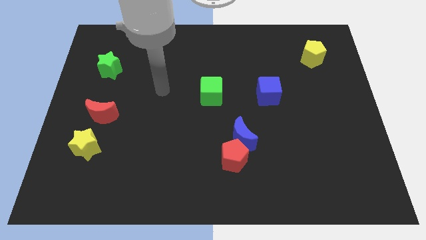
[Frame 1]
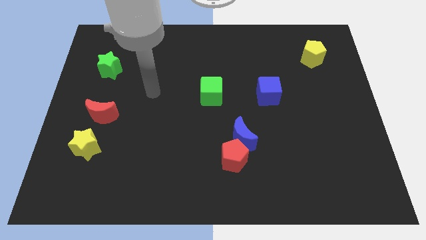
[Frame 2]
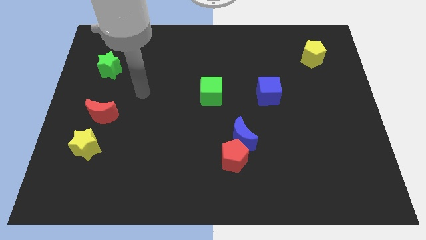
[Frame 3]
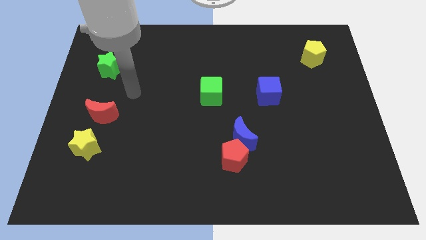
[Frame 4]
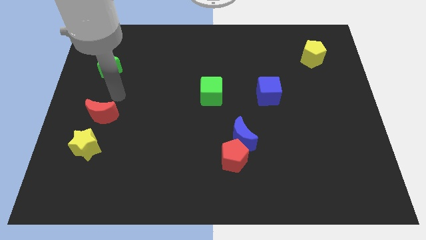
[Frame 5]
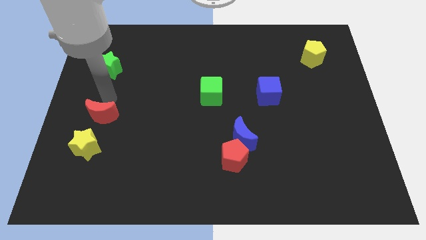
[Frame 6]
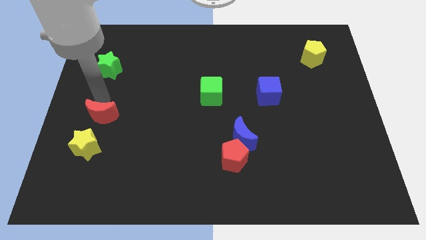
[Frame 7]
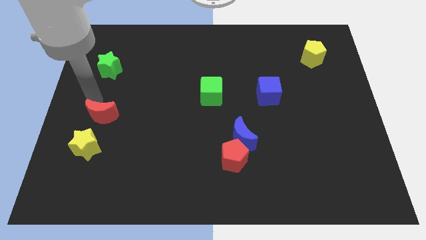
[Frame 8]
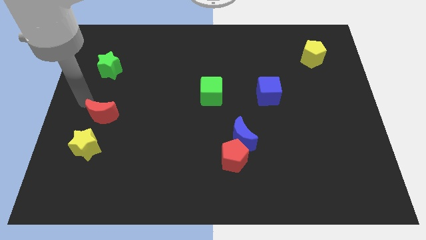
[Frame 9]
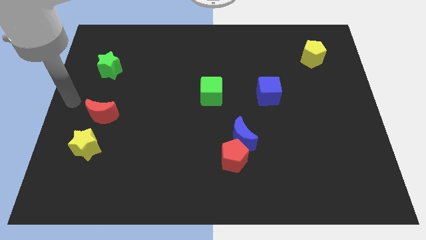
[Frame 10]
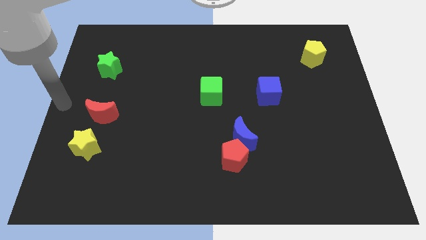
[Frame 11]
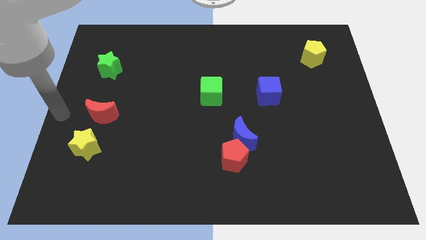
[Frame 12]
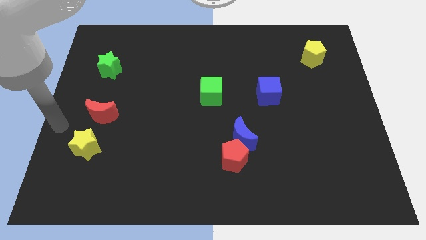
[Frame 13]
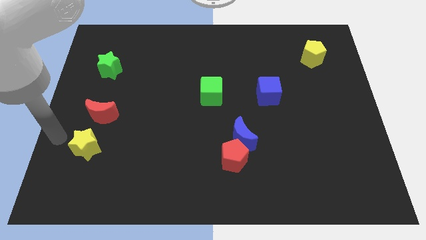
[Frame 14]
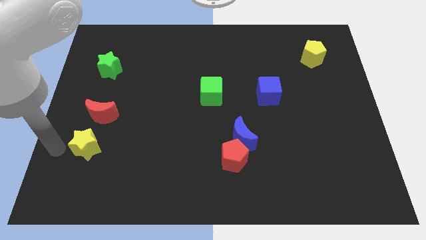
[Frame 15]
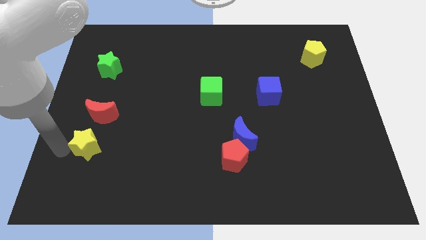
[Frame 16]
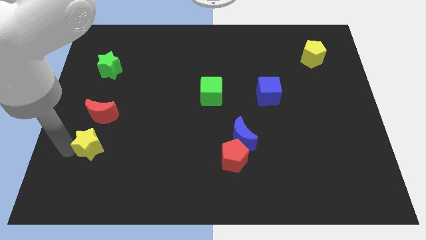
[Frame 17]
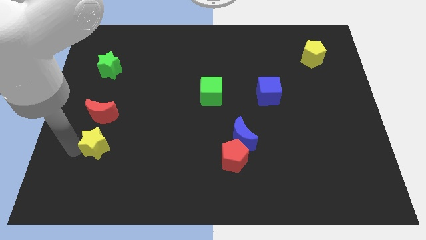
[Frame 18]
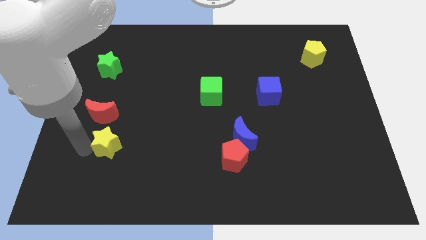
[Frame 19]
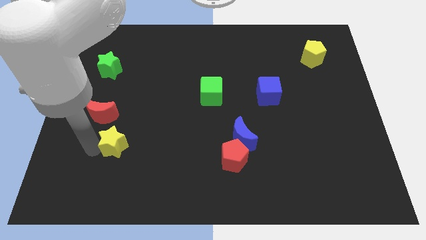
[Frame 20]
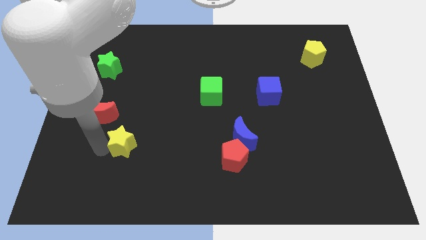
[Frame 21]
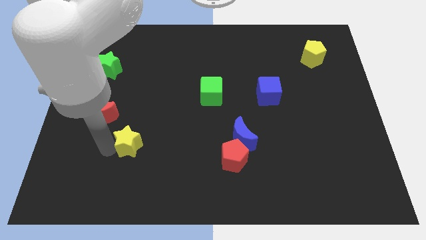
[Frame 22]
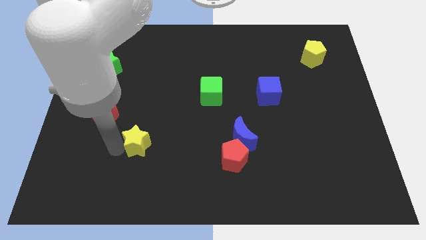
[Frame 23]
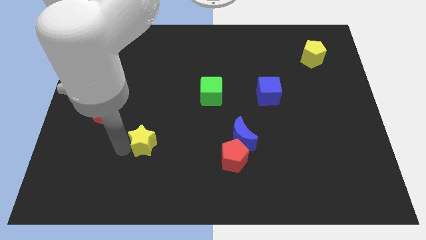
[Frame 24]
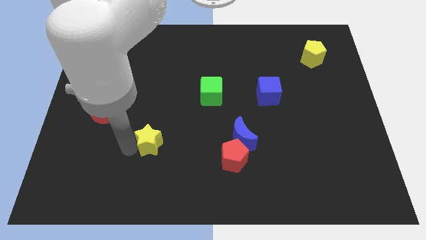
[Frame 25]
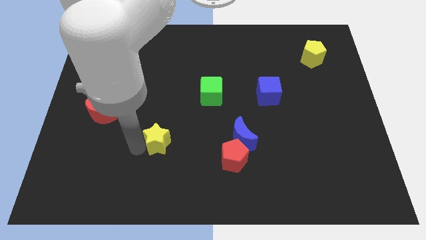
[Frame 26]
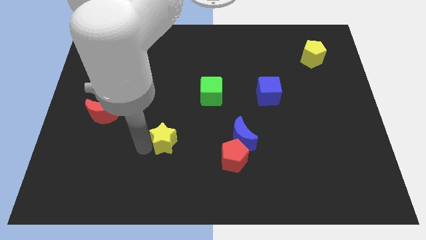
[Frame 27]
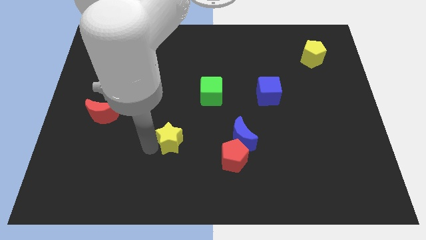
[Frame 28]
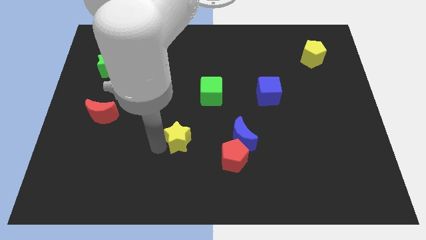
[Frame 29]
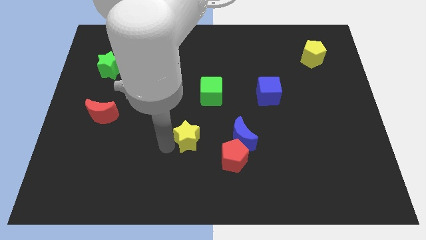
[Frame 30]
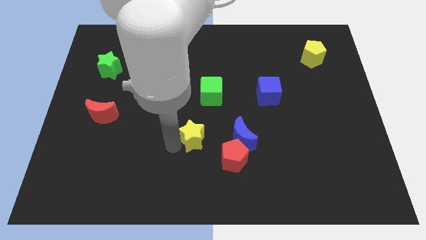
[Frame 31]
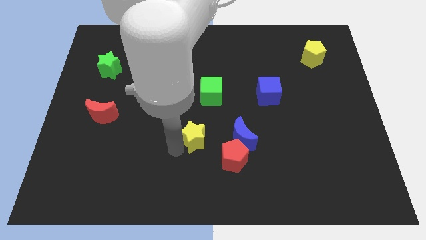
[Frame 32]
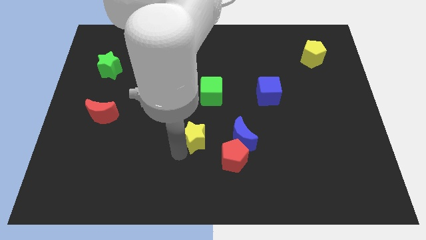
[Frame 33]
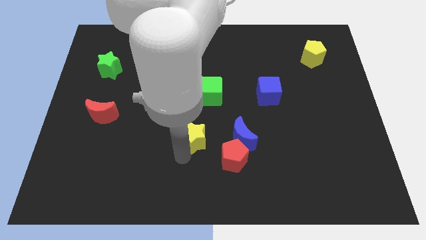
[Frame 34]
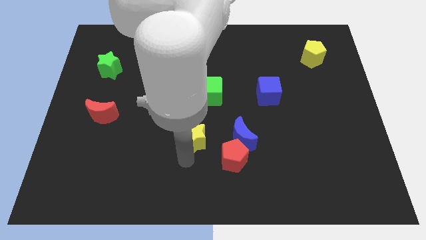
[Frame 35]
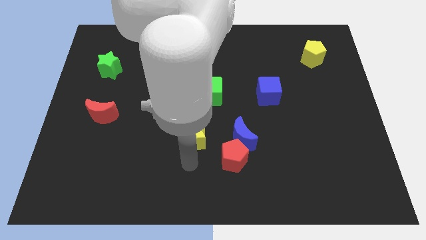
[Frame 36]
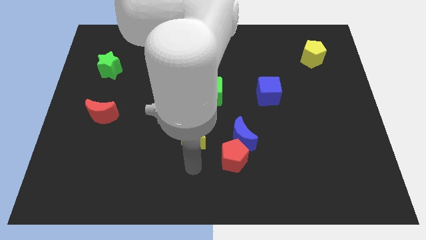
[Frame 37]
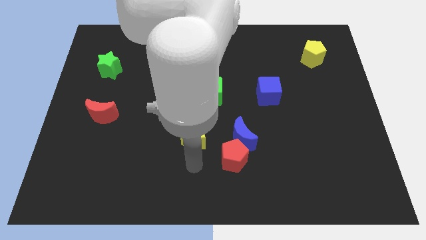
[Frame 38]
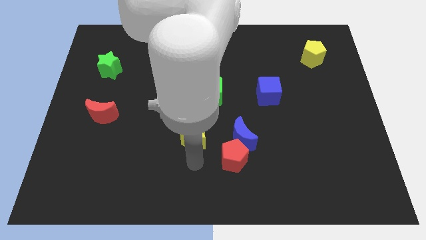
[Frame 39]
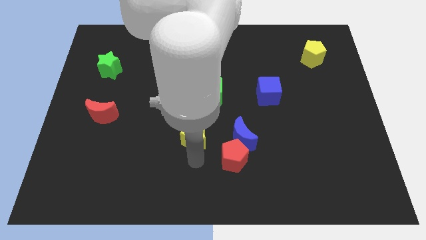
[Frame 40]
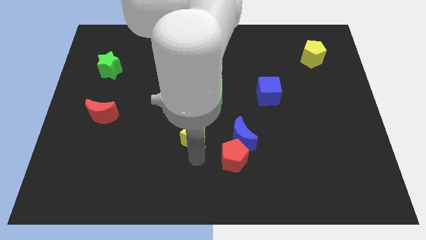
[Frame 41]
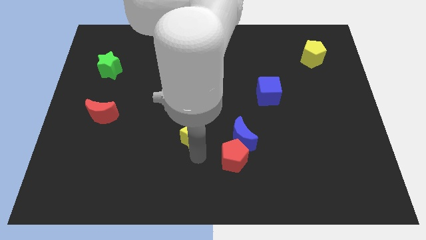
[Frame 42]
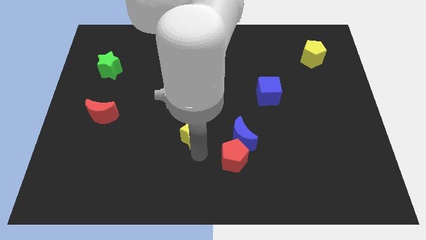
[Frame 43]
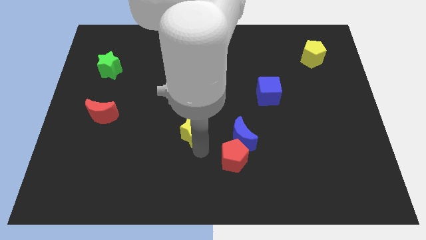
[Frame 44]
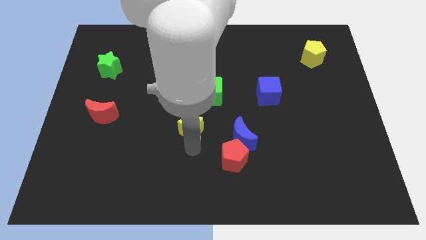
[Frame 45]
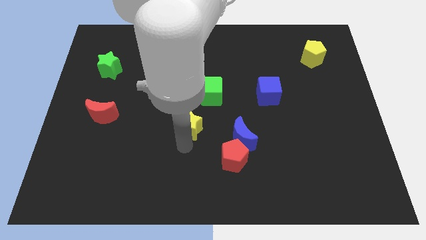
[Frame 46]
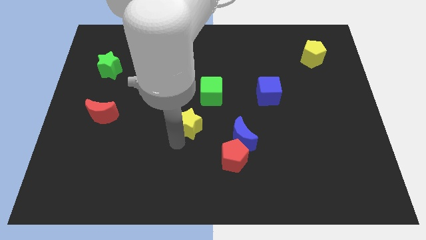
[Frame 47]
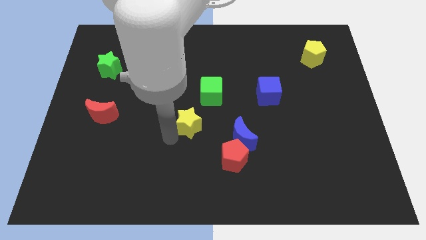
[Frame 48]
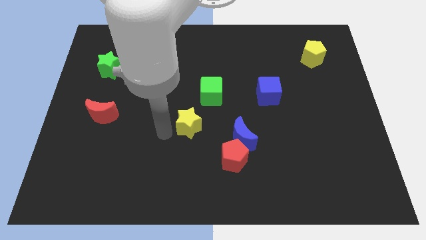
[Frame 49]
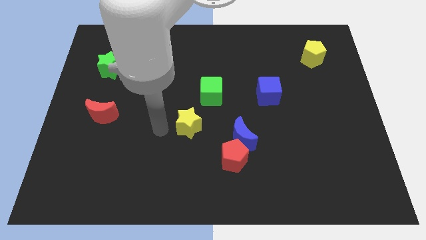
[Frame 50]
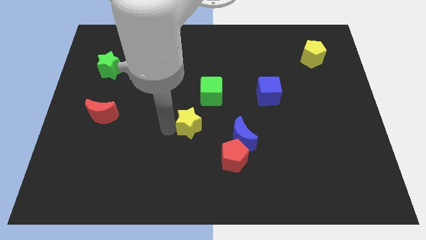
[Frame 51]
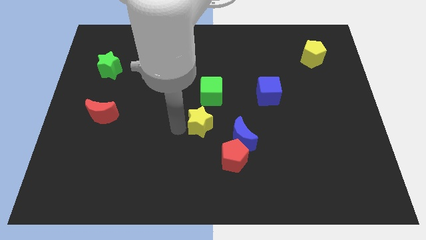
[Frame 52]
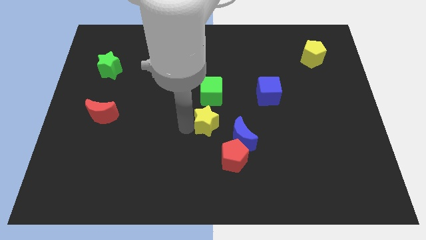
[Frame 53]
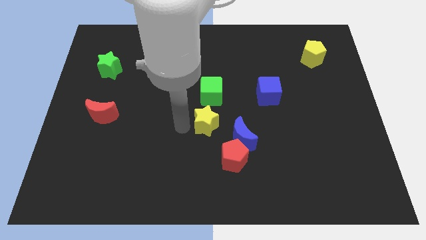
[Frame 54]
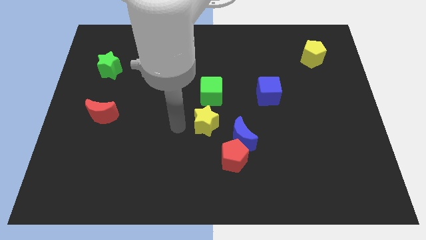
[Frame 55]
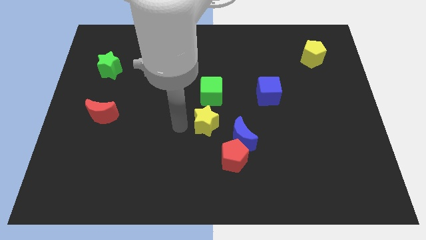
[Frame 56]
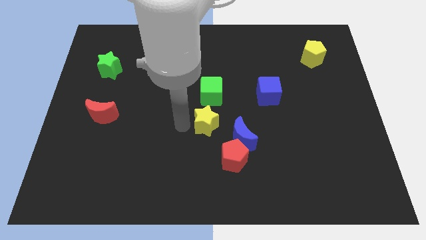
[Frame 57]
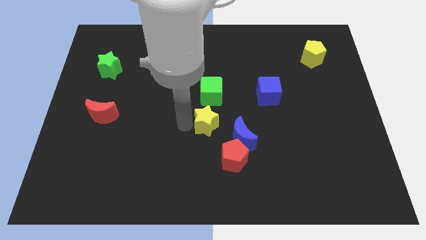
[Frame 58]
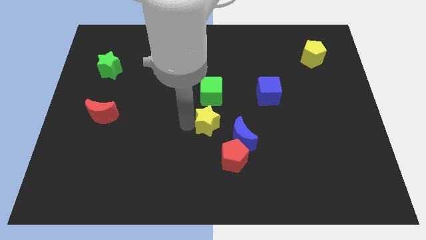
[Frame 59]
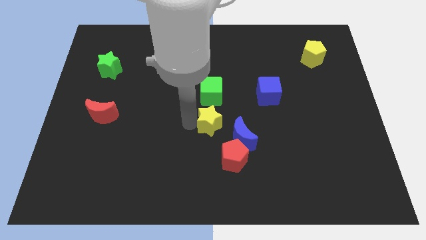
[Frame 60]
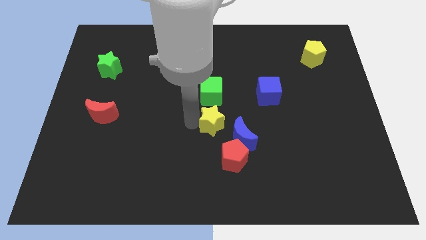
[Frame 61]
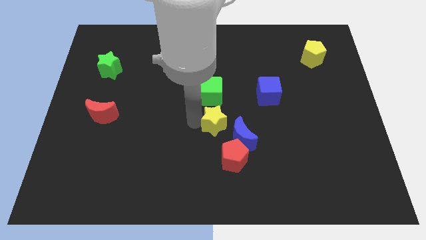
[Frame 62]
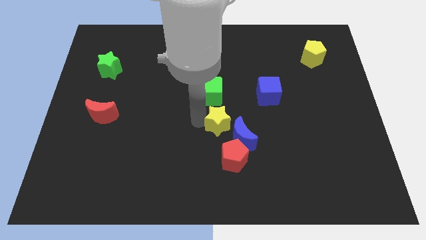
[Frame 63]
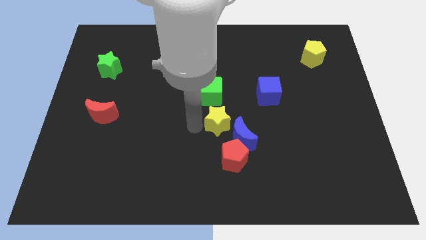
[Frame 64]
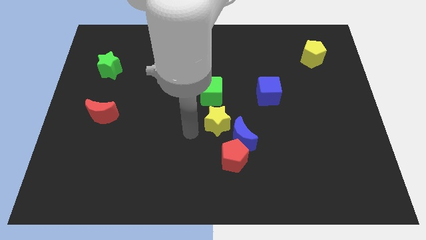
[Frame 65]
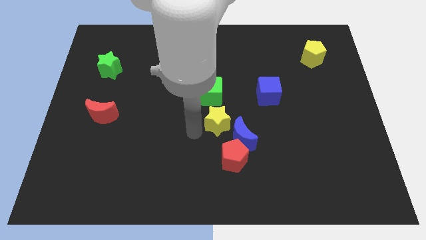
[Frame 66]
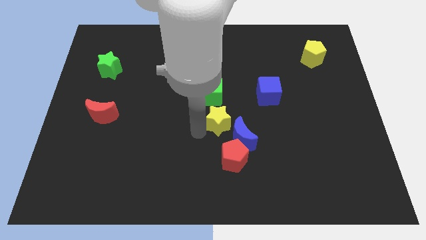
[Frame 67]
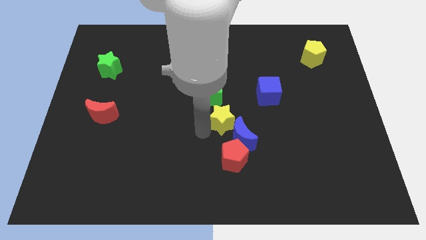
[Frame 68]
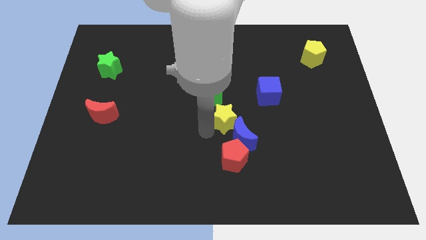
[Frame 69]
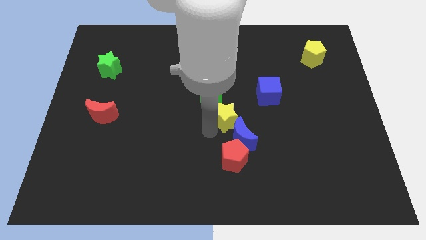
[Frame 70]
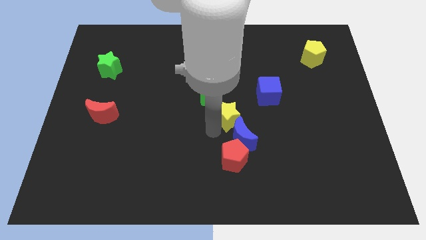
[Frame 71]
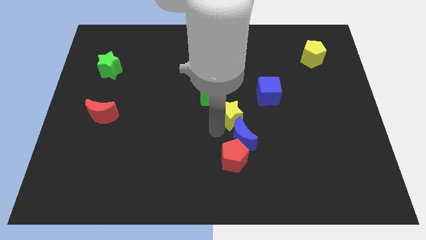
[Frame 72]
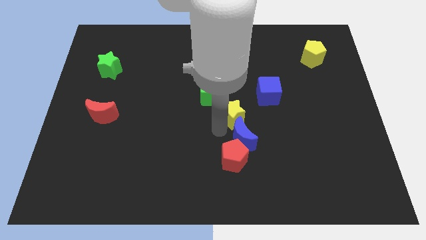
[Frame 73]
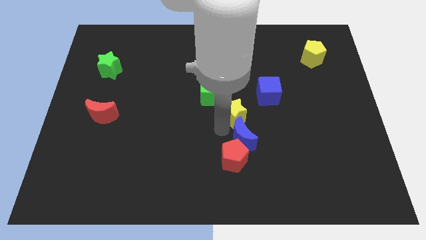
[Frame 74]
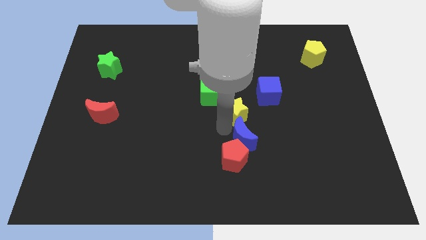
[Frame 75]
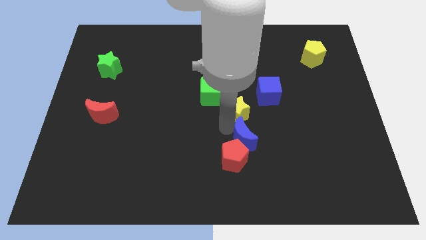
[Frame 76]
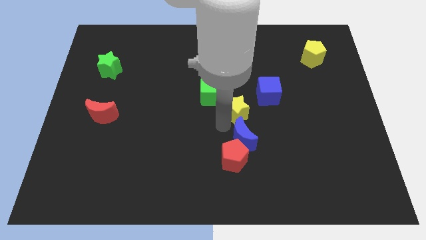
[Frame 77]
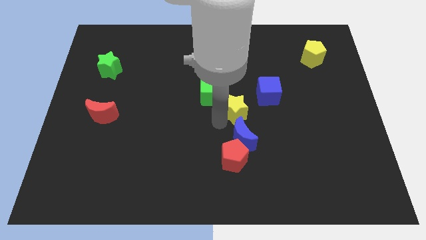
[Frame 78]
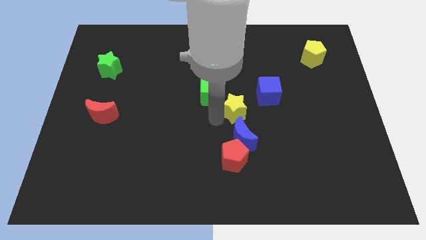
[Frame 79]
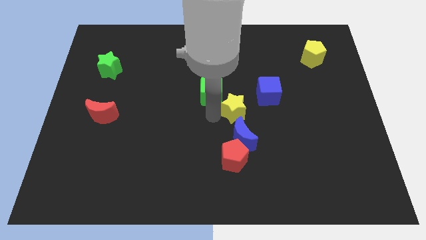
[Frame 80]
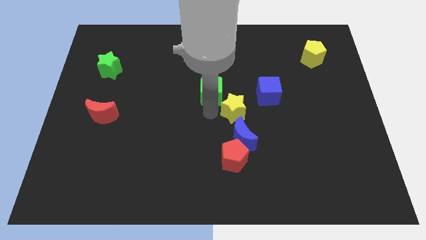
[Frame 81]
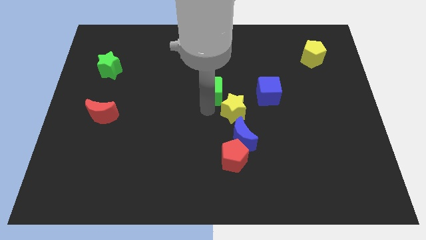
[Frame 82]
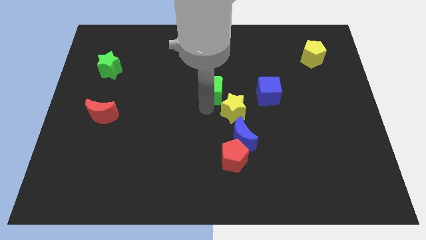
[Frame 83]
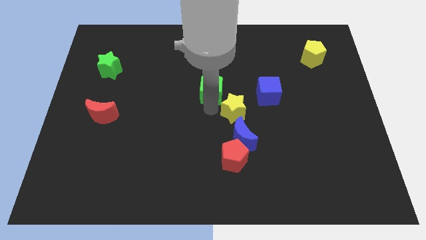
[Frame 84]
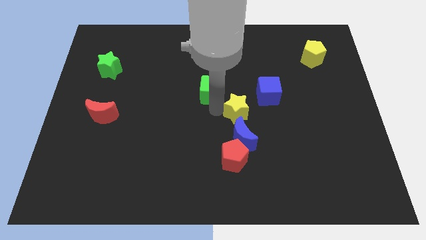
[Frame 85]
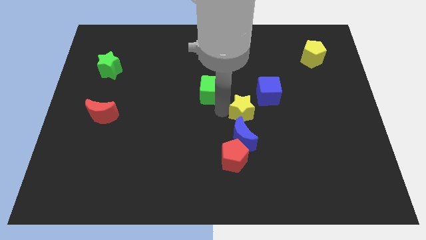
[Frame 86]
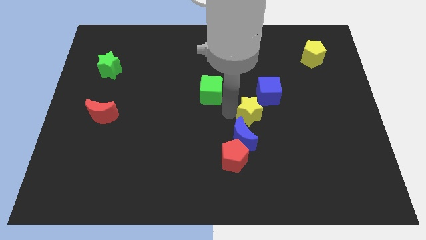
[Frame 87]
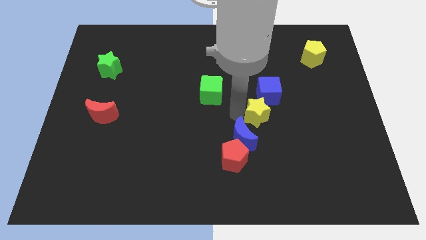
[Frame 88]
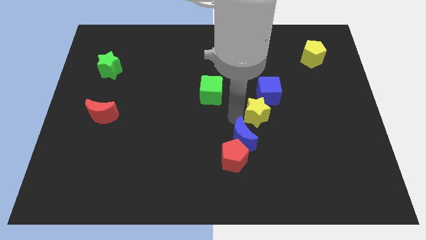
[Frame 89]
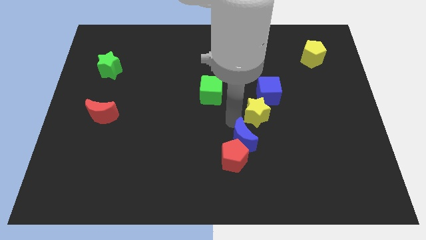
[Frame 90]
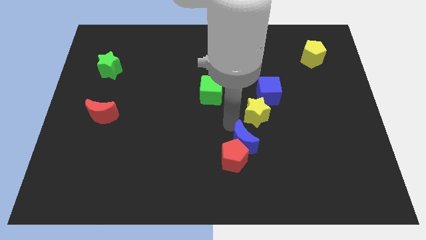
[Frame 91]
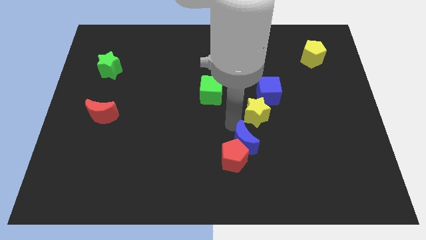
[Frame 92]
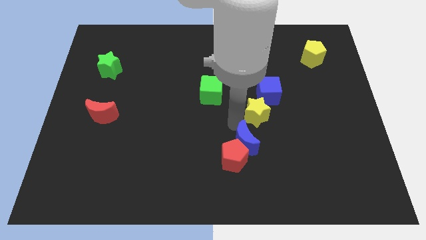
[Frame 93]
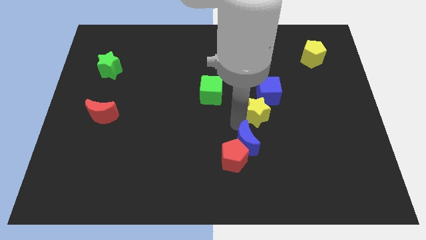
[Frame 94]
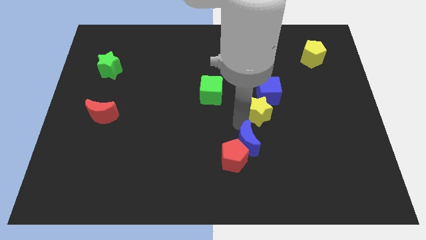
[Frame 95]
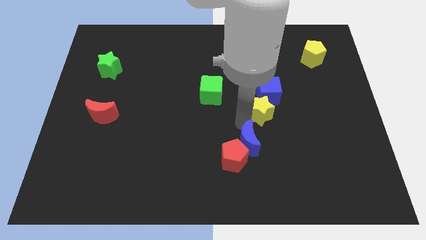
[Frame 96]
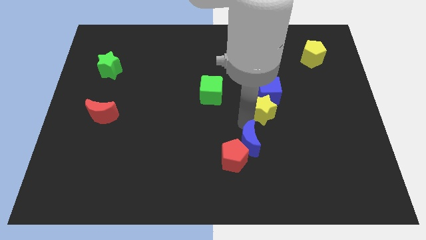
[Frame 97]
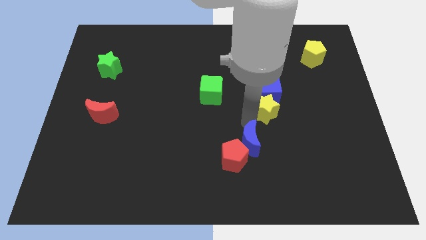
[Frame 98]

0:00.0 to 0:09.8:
slide the yellow star diagonally down and to the right of the blue cube
